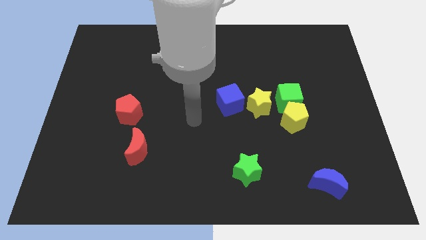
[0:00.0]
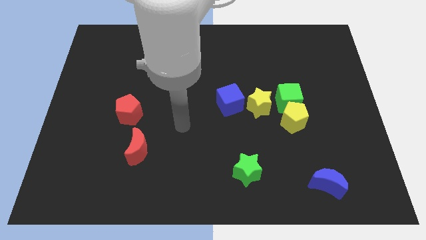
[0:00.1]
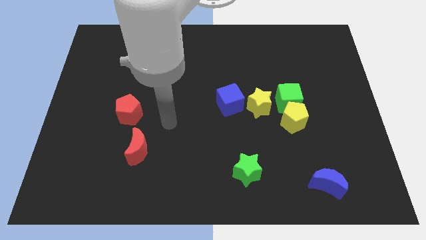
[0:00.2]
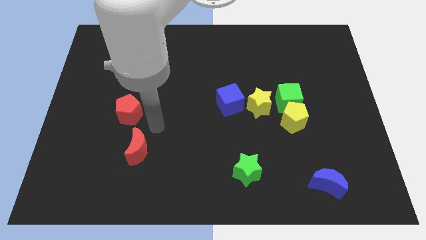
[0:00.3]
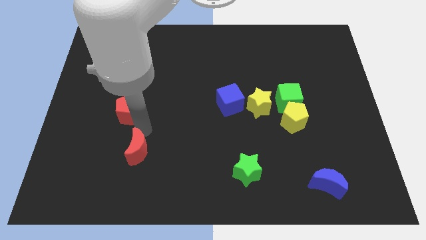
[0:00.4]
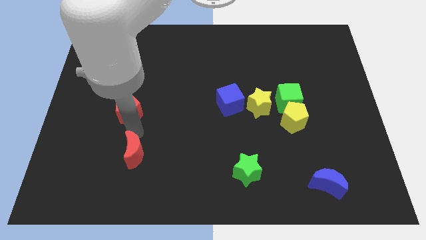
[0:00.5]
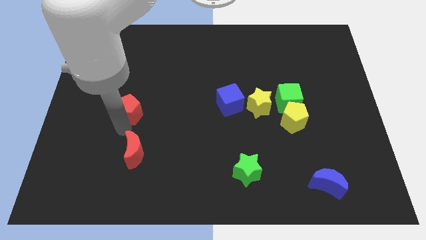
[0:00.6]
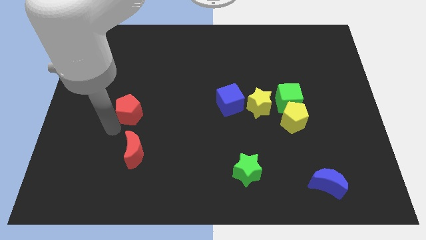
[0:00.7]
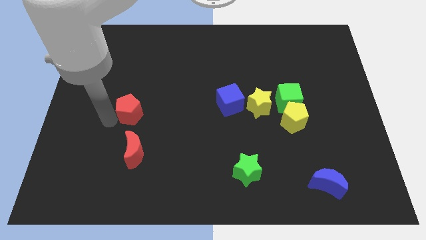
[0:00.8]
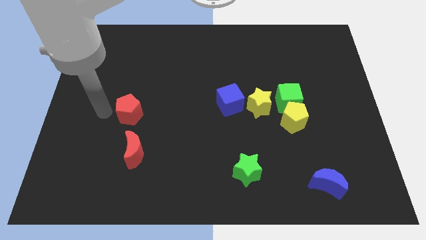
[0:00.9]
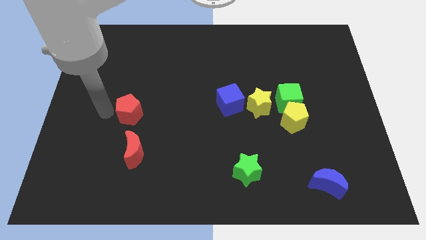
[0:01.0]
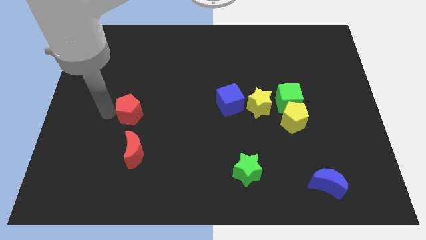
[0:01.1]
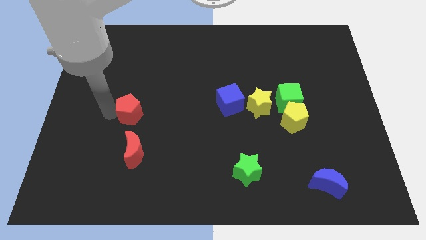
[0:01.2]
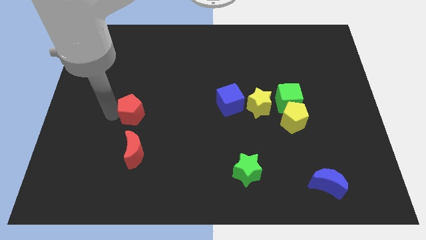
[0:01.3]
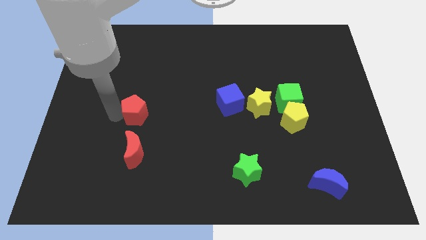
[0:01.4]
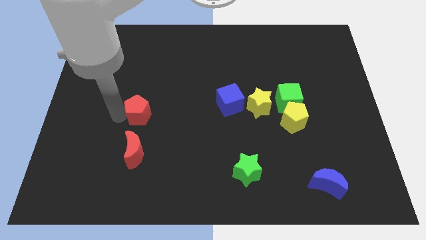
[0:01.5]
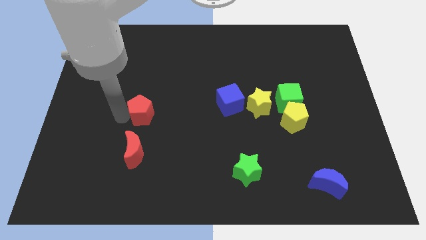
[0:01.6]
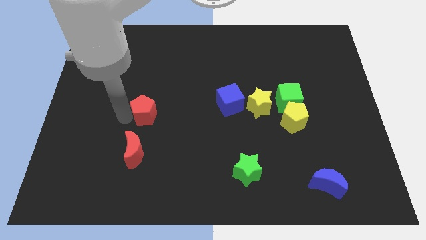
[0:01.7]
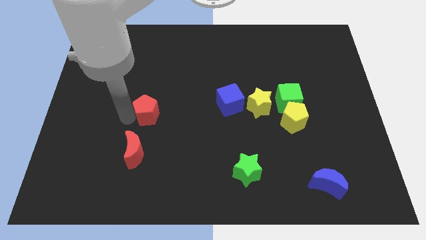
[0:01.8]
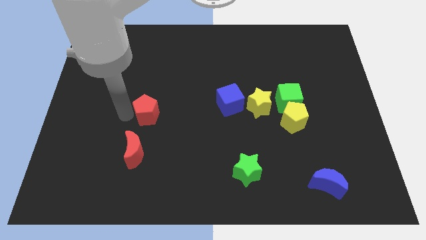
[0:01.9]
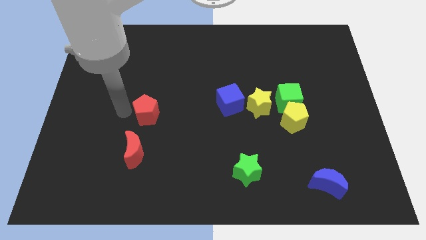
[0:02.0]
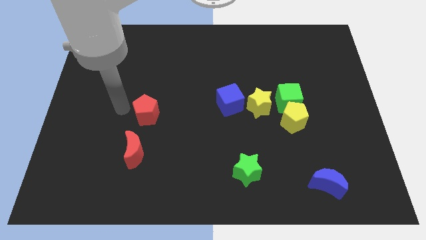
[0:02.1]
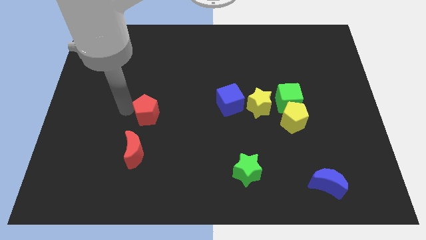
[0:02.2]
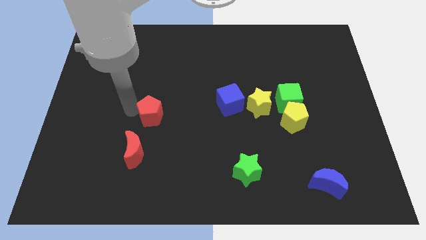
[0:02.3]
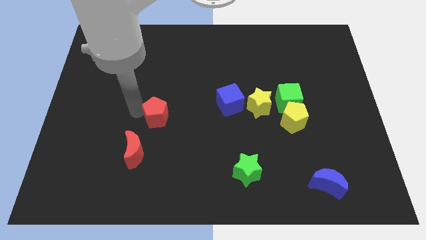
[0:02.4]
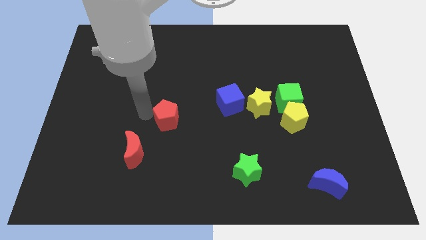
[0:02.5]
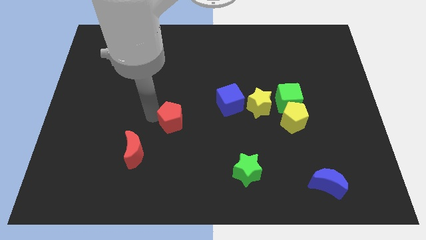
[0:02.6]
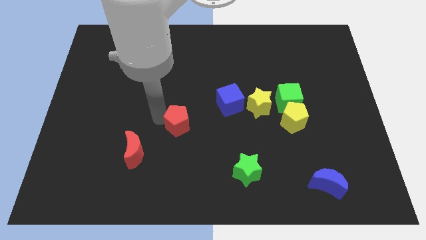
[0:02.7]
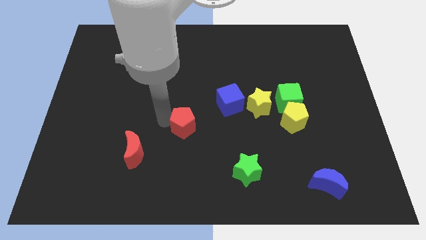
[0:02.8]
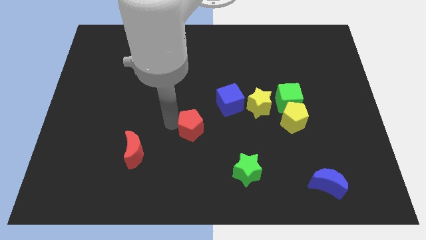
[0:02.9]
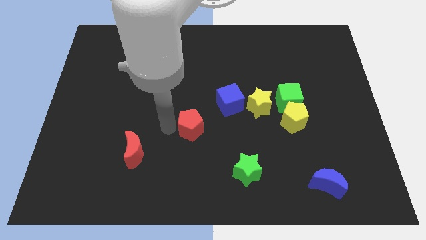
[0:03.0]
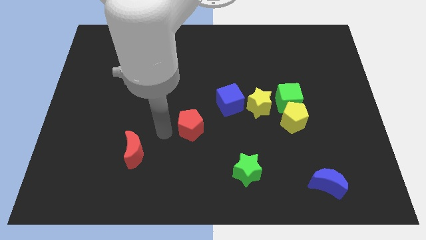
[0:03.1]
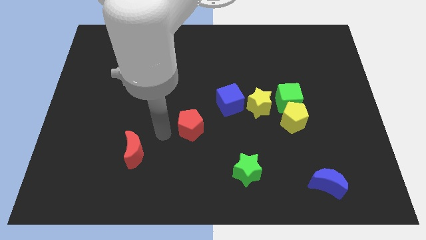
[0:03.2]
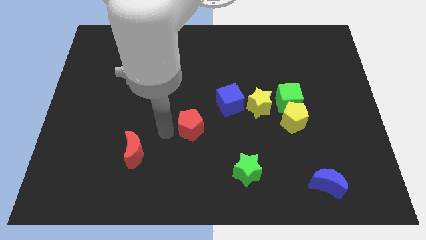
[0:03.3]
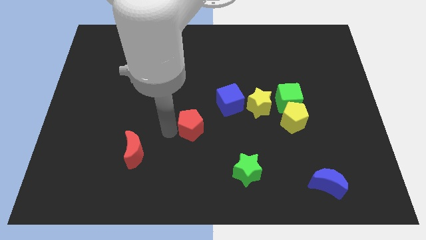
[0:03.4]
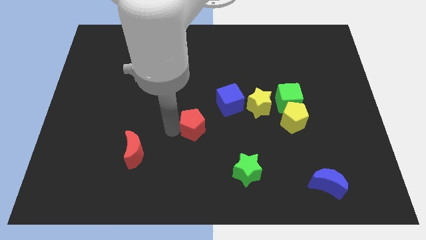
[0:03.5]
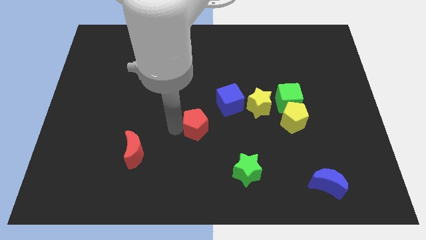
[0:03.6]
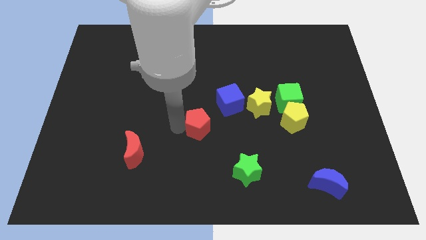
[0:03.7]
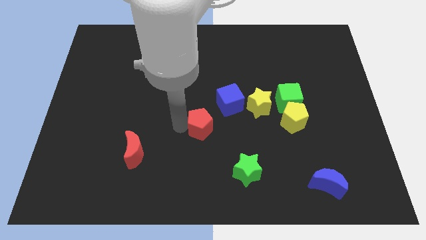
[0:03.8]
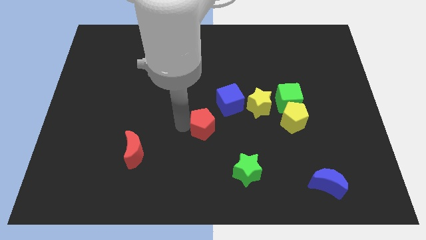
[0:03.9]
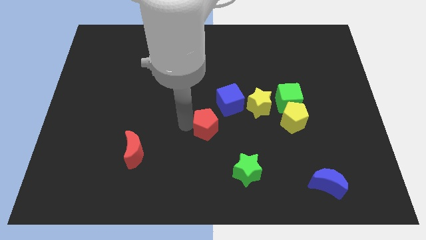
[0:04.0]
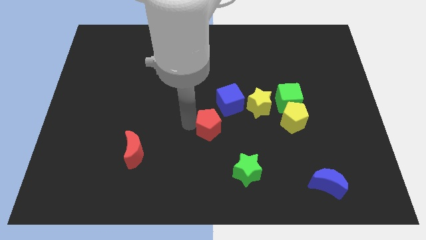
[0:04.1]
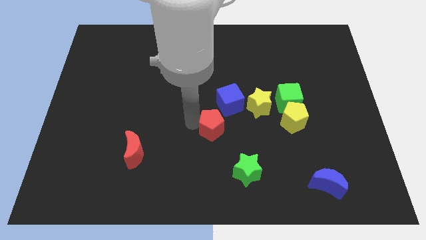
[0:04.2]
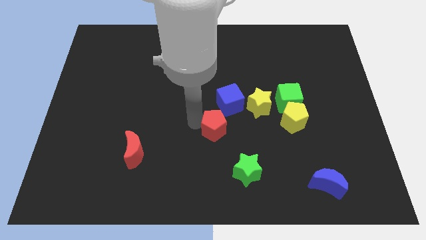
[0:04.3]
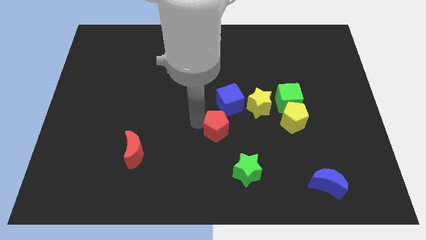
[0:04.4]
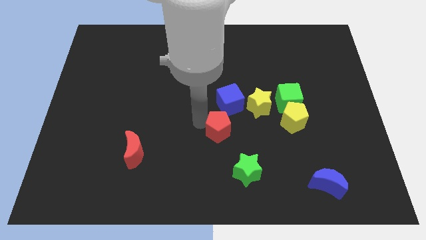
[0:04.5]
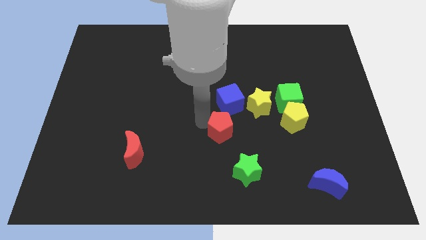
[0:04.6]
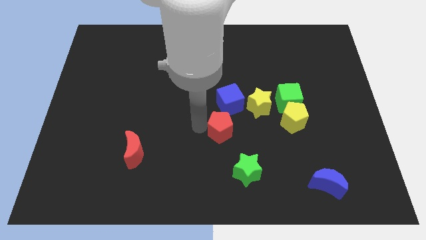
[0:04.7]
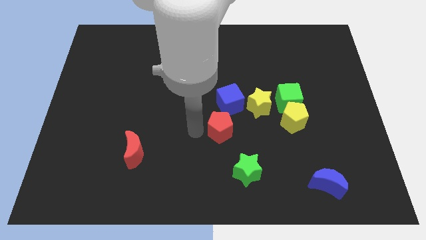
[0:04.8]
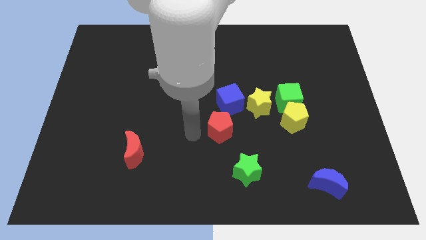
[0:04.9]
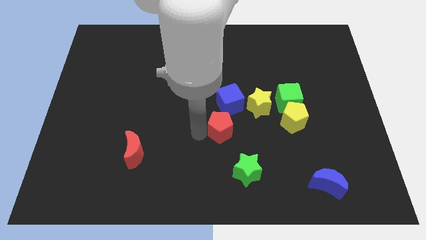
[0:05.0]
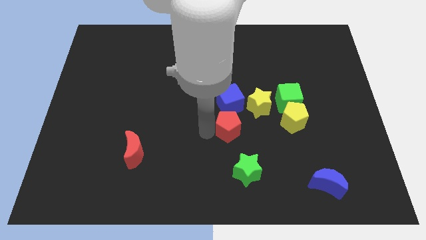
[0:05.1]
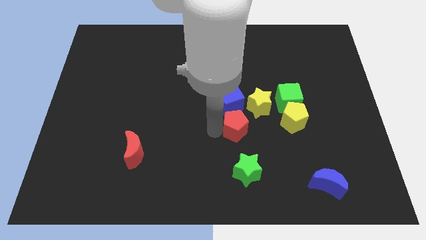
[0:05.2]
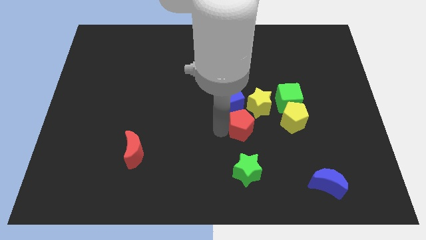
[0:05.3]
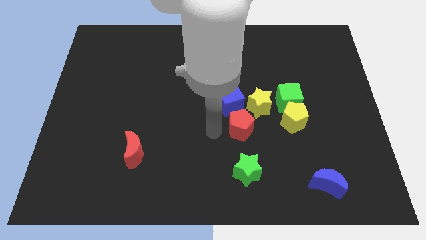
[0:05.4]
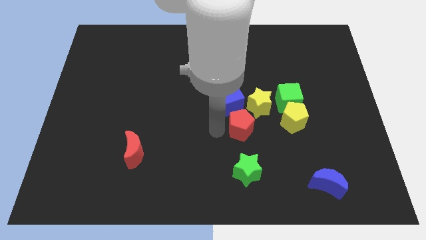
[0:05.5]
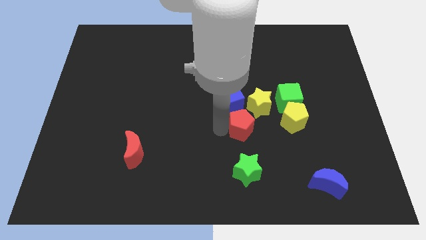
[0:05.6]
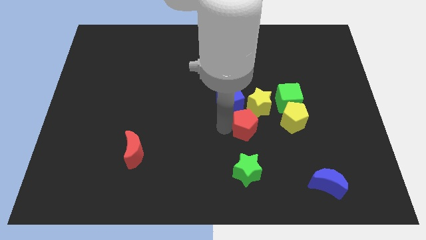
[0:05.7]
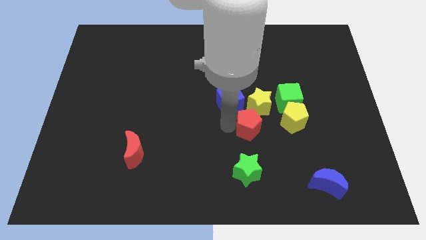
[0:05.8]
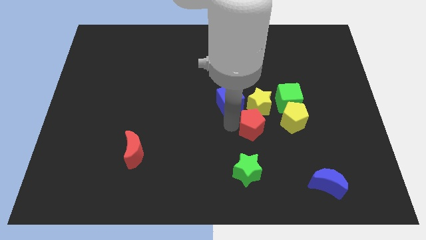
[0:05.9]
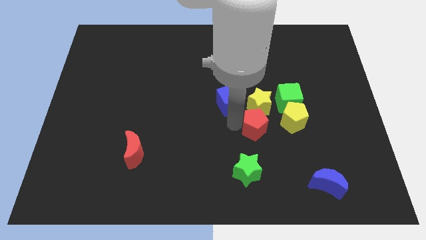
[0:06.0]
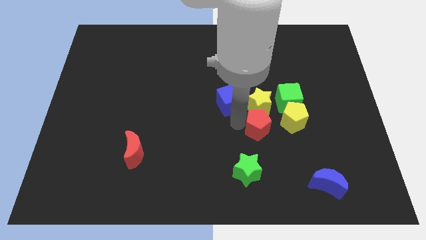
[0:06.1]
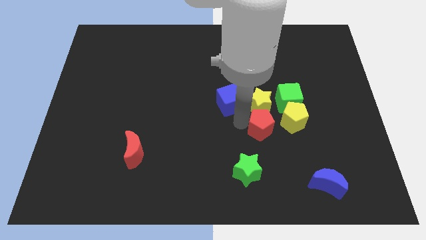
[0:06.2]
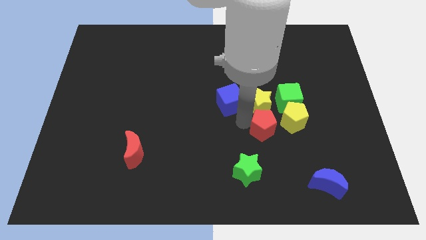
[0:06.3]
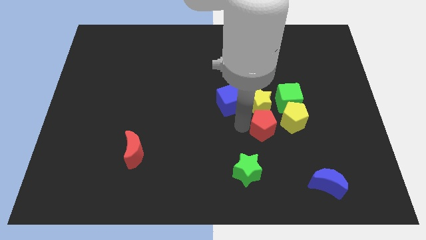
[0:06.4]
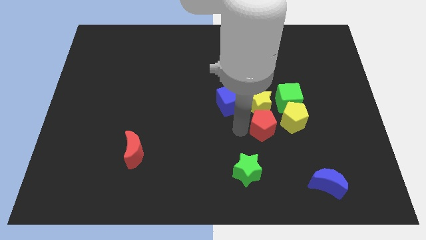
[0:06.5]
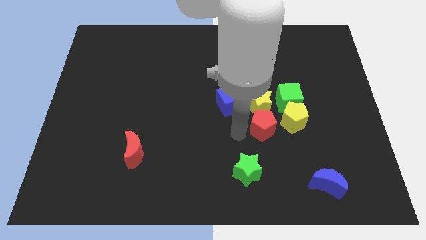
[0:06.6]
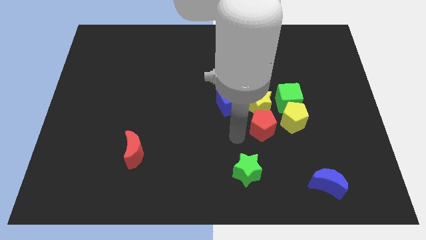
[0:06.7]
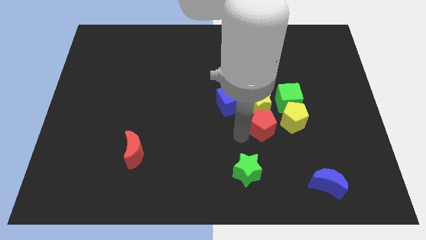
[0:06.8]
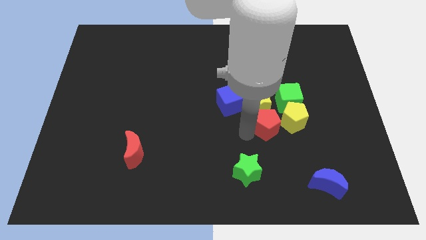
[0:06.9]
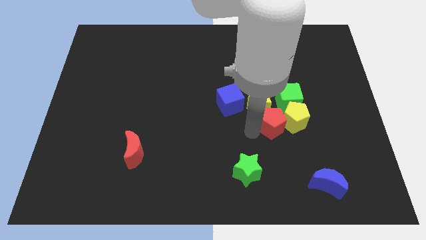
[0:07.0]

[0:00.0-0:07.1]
slide the red pentagon to the yellow pentagon
